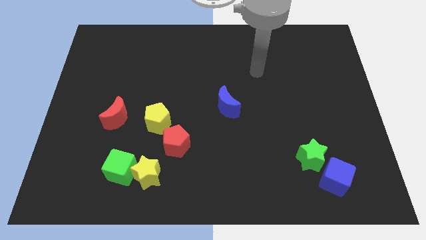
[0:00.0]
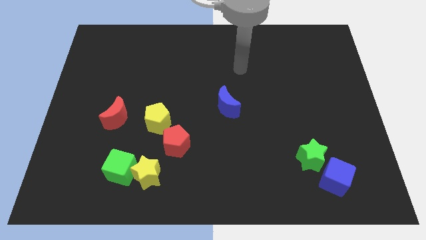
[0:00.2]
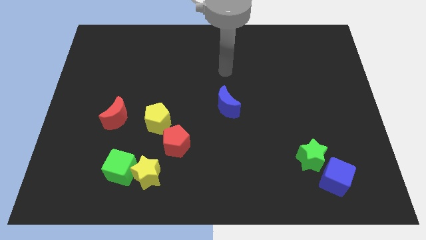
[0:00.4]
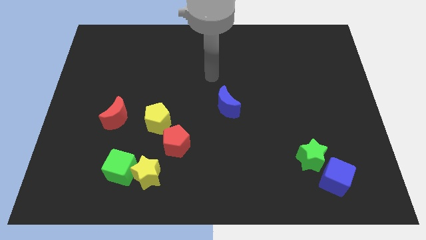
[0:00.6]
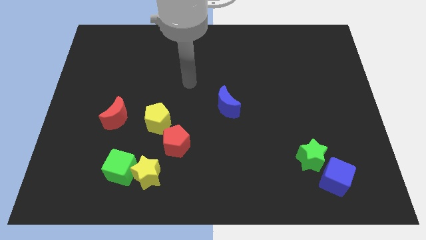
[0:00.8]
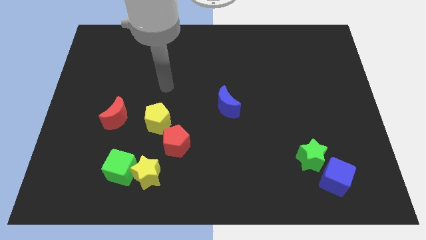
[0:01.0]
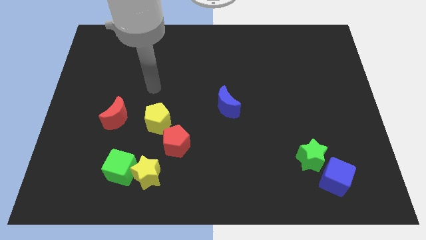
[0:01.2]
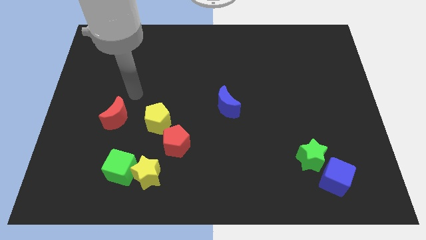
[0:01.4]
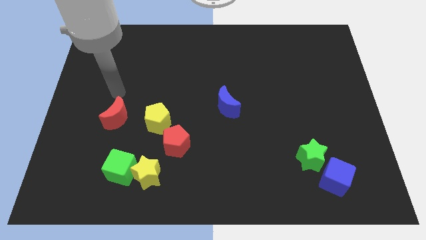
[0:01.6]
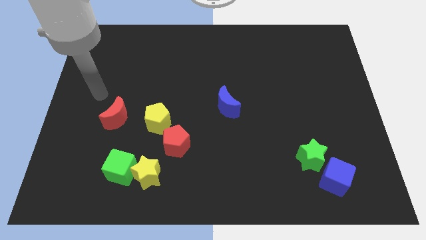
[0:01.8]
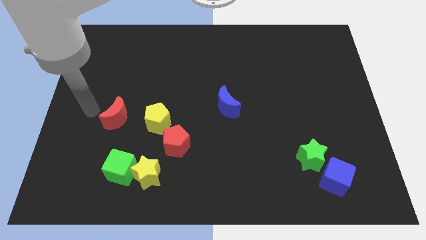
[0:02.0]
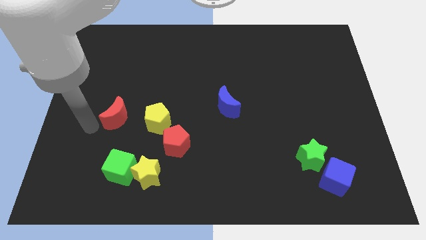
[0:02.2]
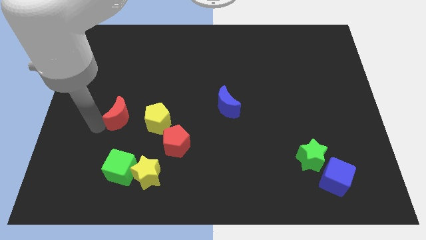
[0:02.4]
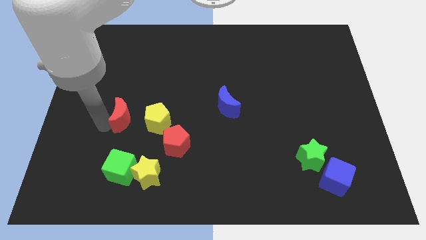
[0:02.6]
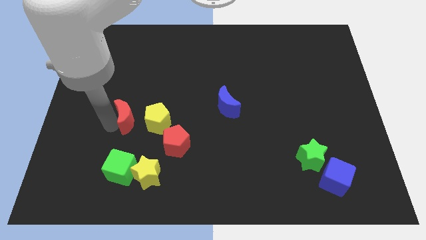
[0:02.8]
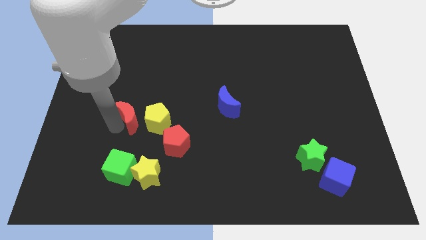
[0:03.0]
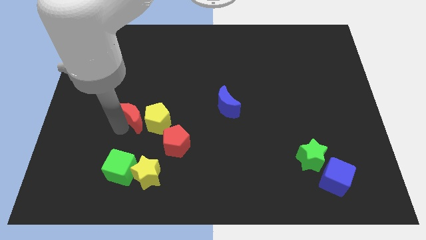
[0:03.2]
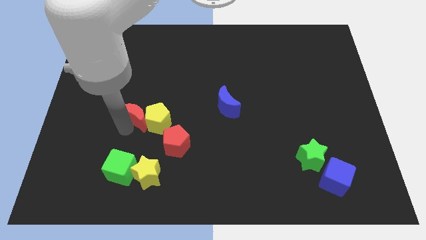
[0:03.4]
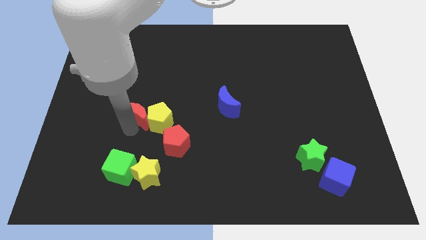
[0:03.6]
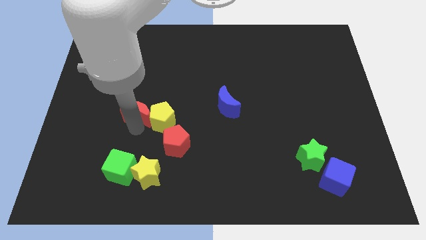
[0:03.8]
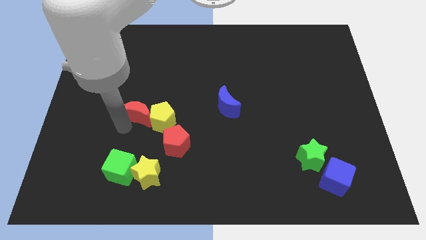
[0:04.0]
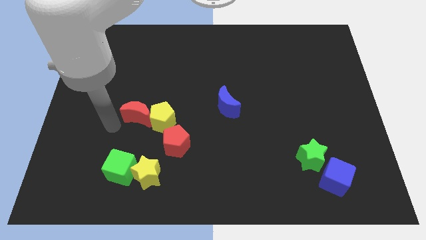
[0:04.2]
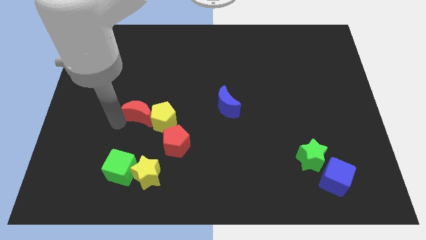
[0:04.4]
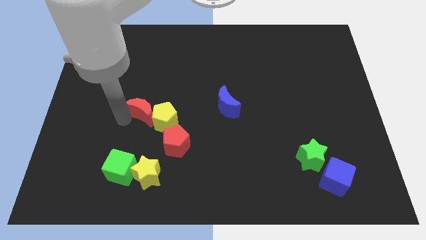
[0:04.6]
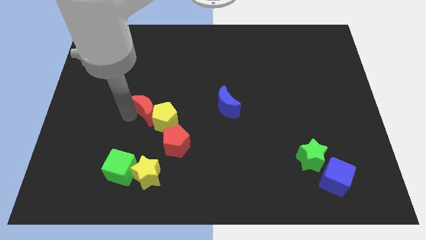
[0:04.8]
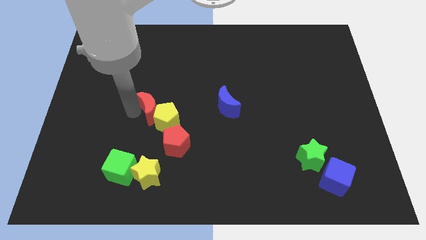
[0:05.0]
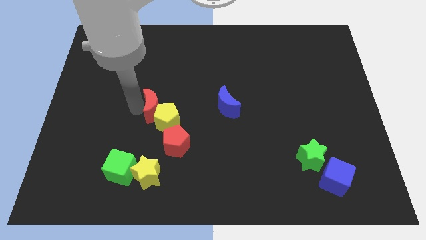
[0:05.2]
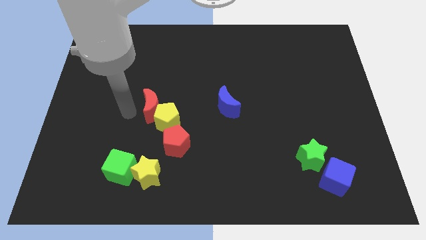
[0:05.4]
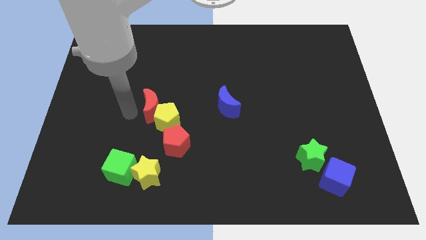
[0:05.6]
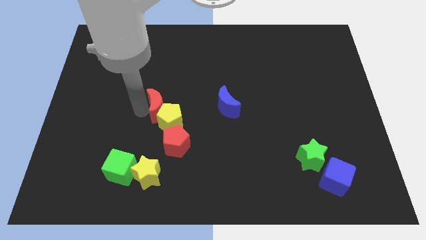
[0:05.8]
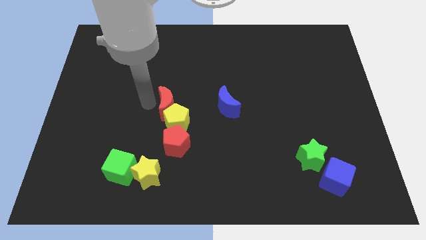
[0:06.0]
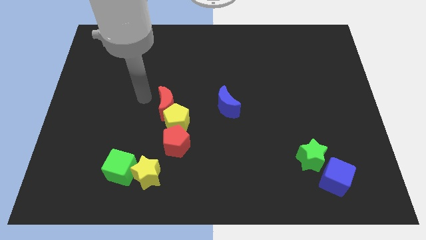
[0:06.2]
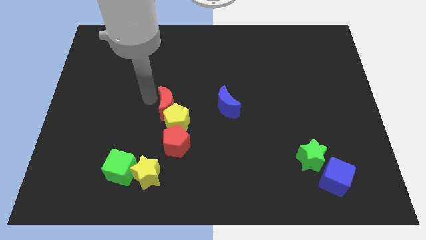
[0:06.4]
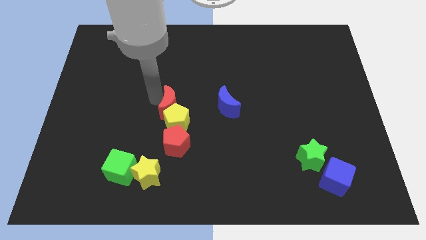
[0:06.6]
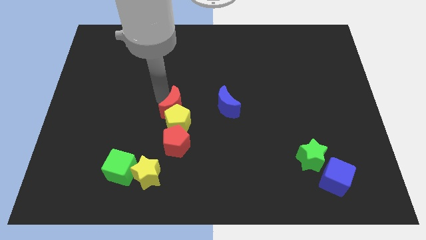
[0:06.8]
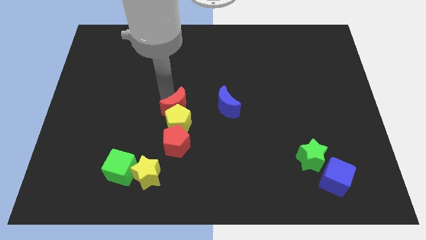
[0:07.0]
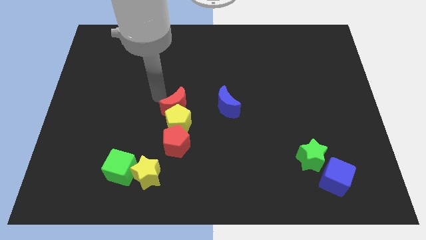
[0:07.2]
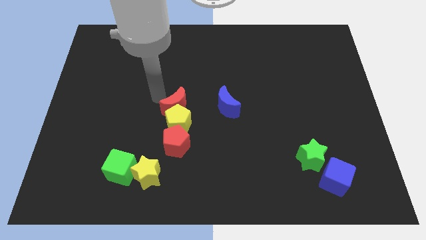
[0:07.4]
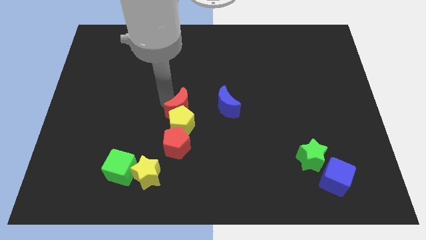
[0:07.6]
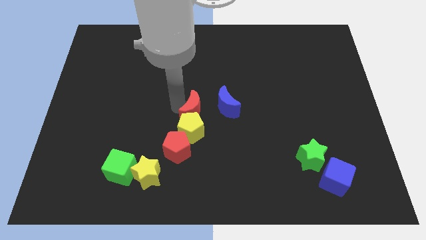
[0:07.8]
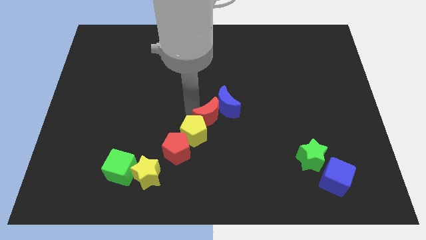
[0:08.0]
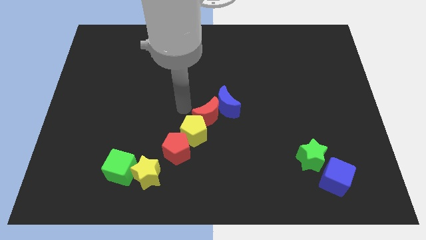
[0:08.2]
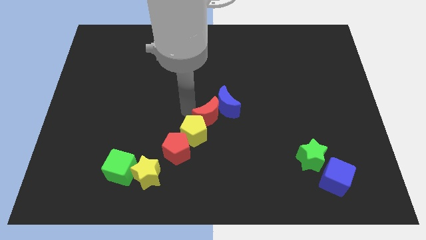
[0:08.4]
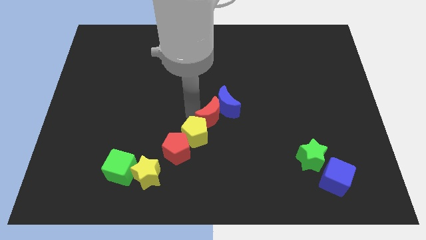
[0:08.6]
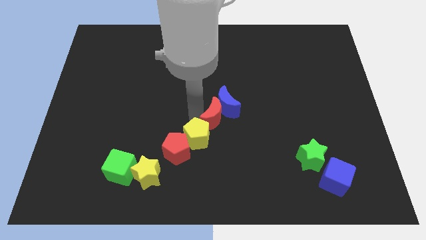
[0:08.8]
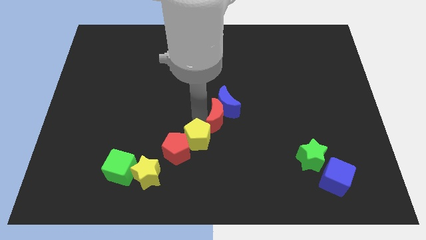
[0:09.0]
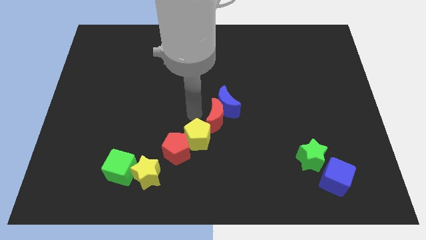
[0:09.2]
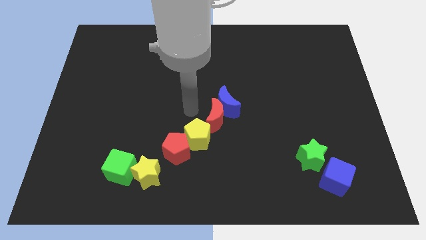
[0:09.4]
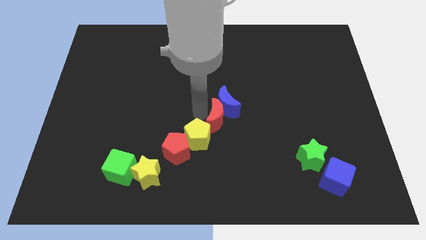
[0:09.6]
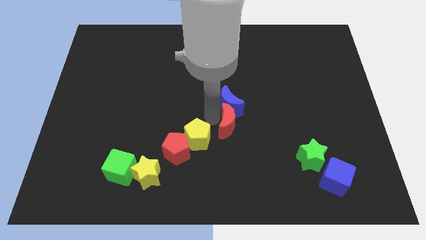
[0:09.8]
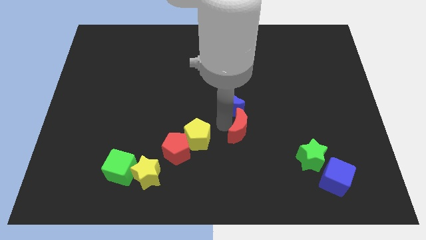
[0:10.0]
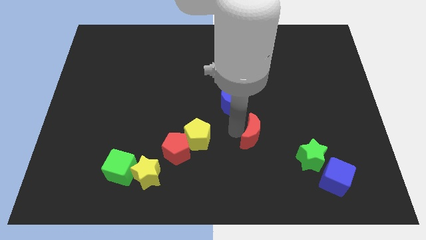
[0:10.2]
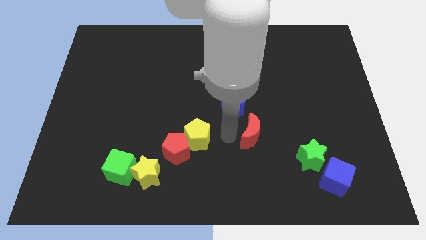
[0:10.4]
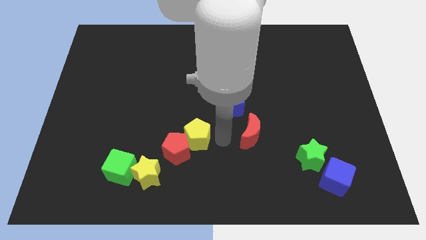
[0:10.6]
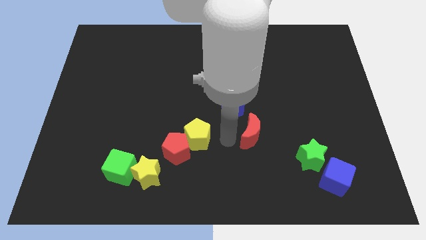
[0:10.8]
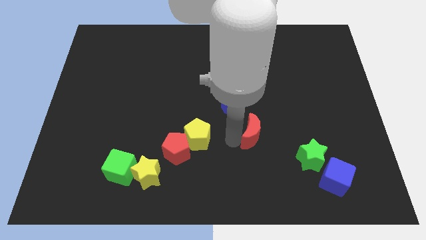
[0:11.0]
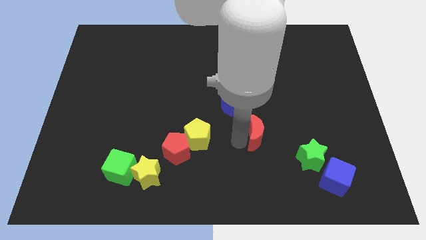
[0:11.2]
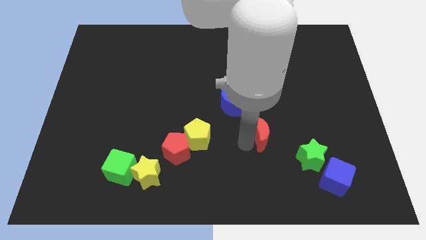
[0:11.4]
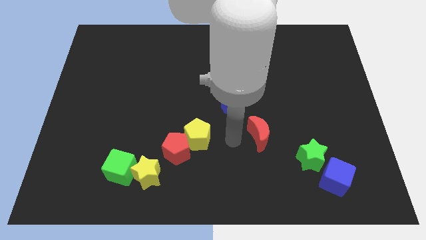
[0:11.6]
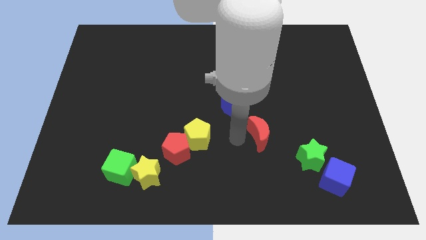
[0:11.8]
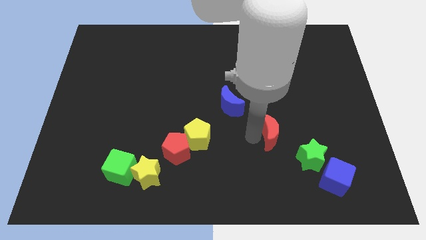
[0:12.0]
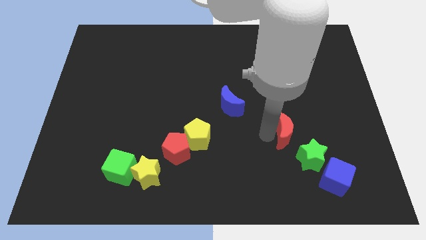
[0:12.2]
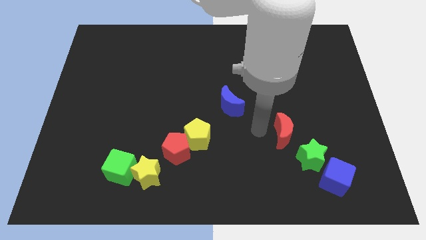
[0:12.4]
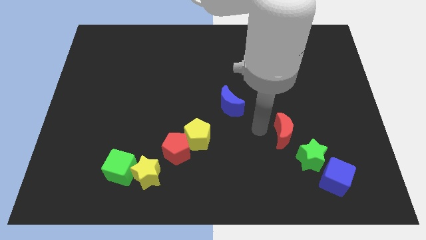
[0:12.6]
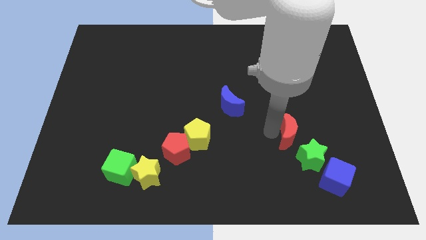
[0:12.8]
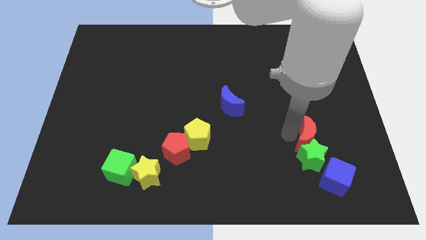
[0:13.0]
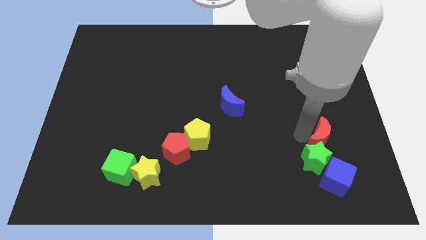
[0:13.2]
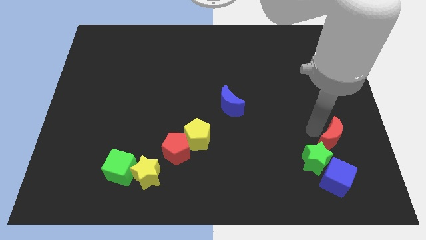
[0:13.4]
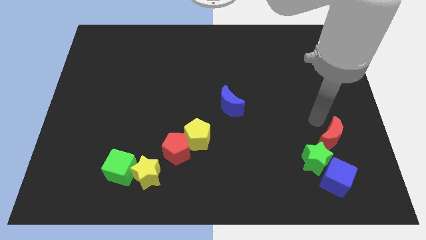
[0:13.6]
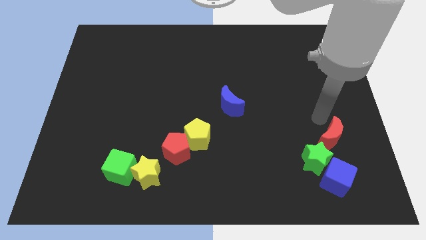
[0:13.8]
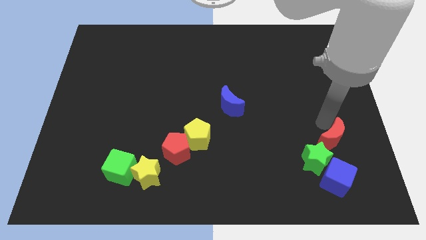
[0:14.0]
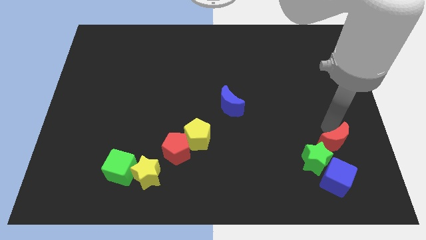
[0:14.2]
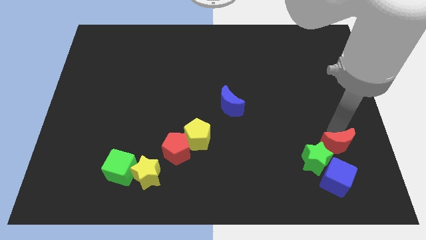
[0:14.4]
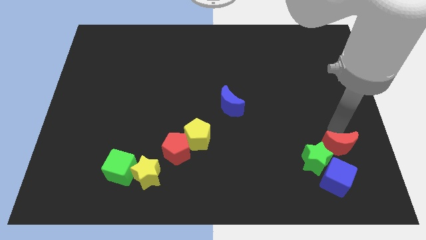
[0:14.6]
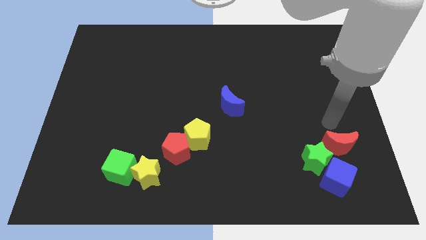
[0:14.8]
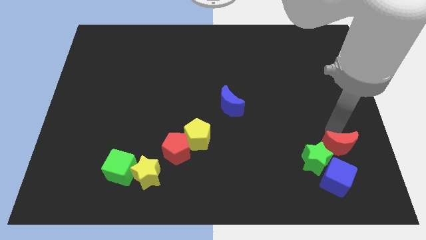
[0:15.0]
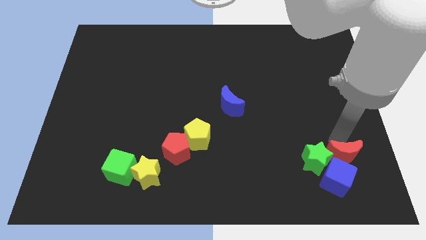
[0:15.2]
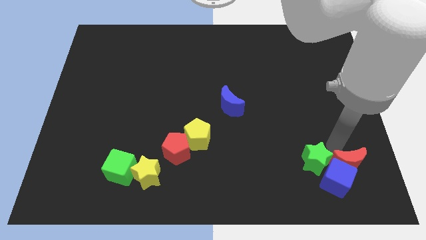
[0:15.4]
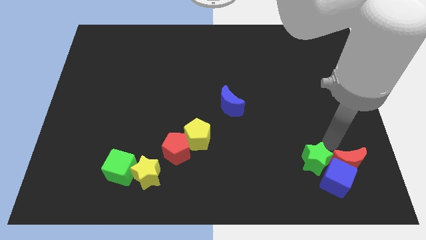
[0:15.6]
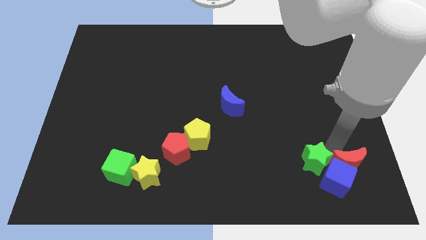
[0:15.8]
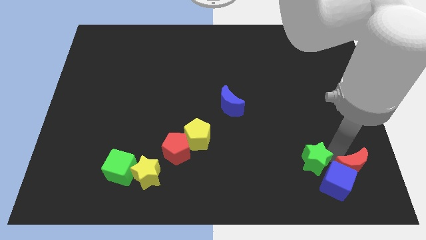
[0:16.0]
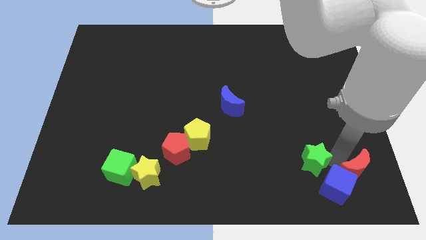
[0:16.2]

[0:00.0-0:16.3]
push the red moon to the bottom right of the board
